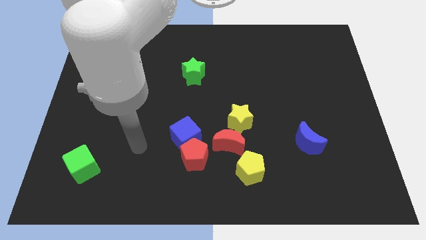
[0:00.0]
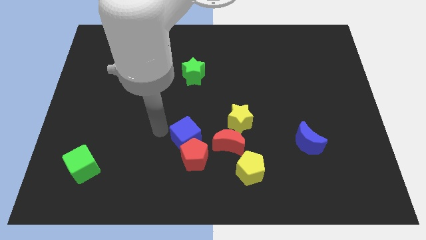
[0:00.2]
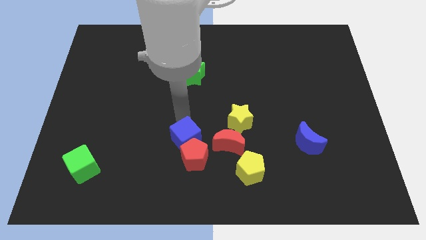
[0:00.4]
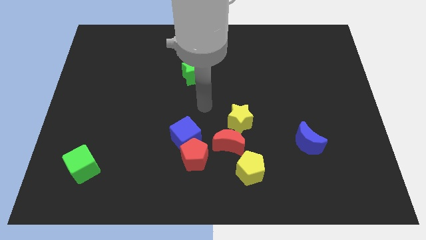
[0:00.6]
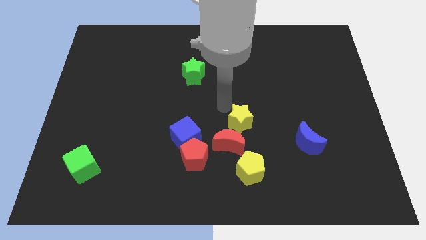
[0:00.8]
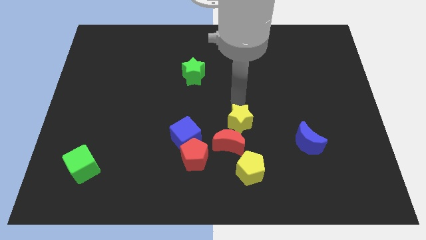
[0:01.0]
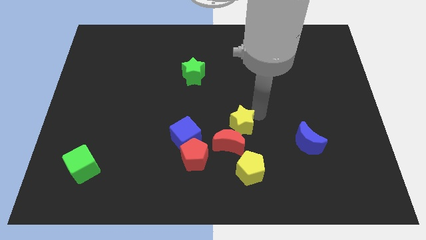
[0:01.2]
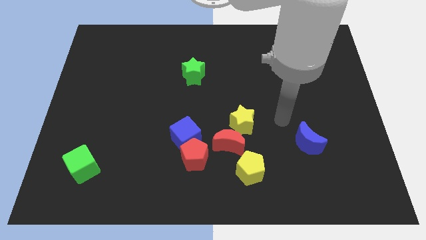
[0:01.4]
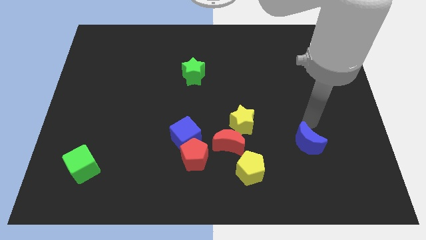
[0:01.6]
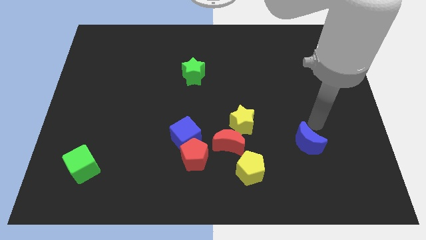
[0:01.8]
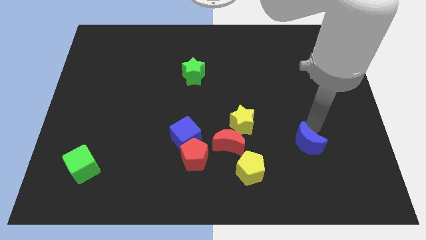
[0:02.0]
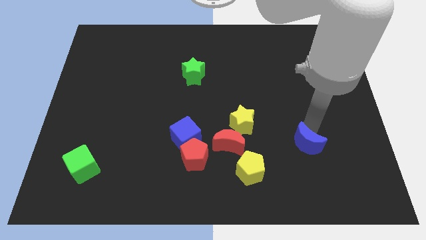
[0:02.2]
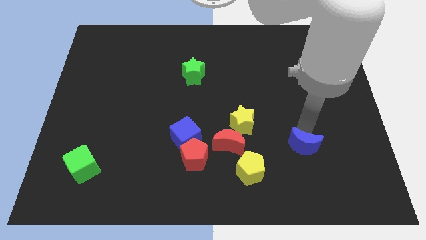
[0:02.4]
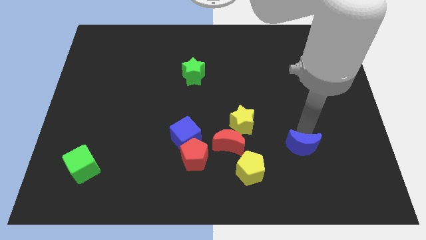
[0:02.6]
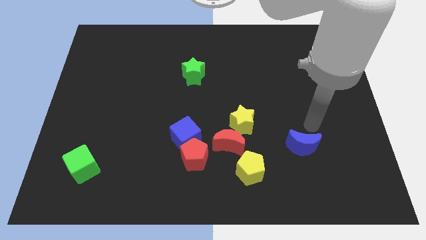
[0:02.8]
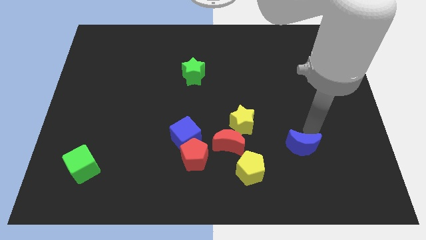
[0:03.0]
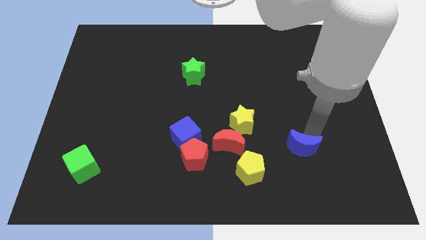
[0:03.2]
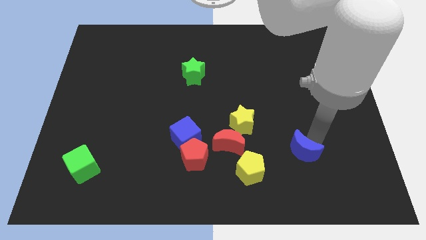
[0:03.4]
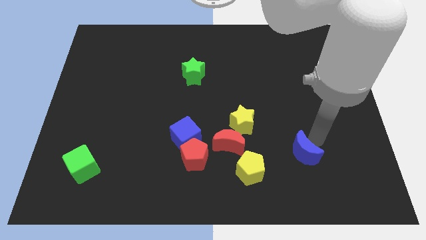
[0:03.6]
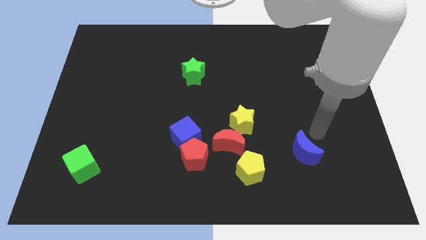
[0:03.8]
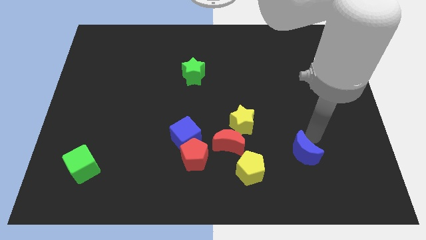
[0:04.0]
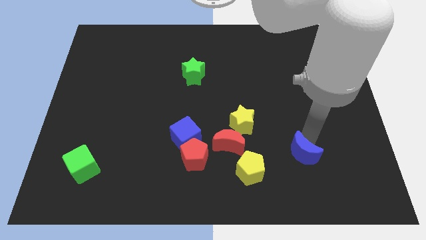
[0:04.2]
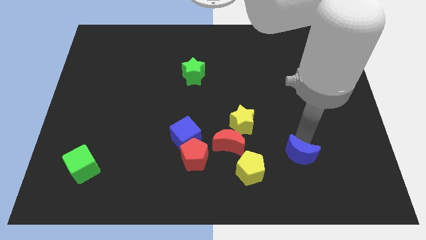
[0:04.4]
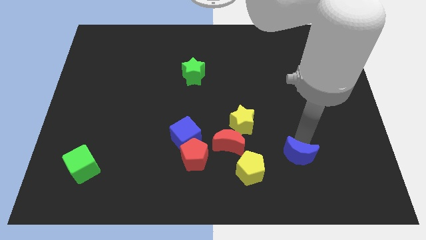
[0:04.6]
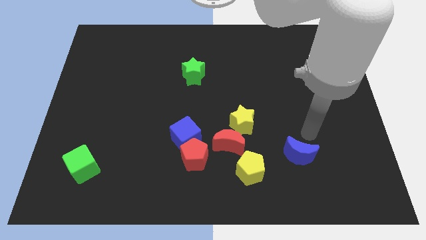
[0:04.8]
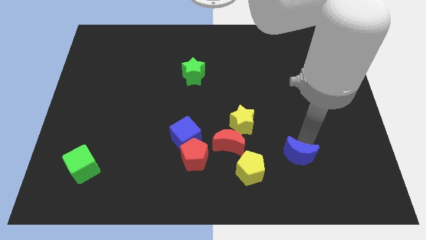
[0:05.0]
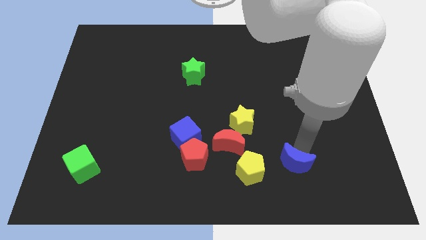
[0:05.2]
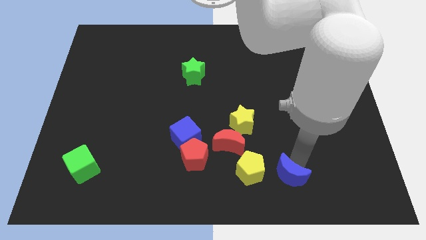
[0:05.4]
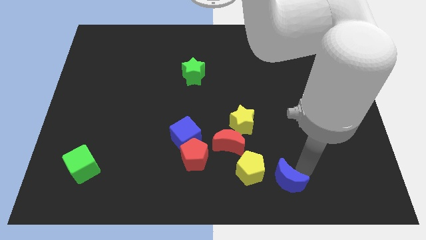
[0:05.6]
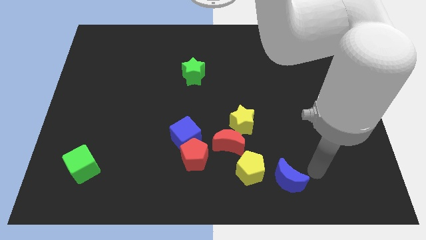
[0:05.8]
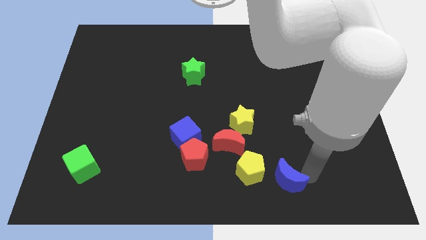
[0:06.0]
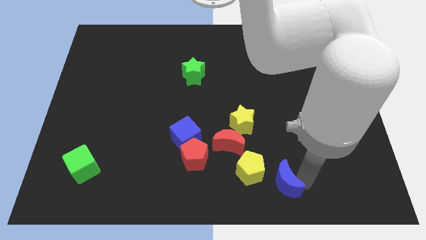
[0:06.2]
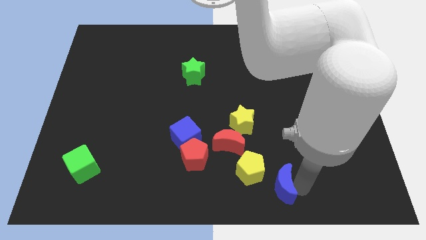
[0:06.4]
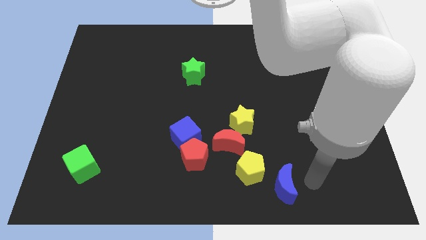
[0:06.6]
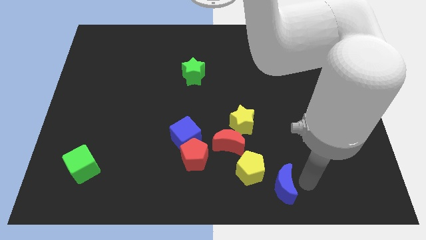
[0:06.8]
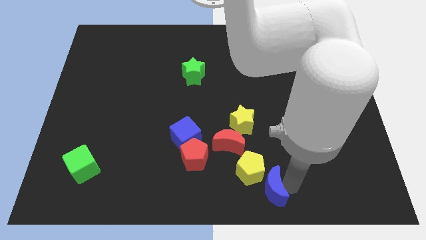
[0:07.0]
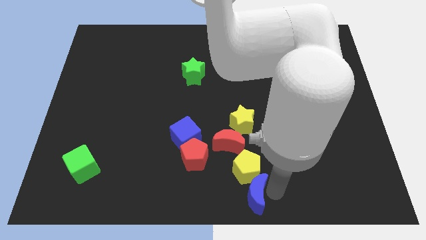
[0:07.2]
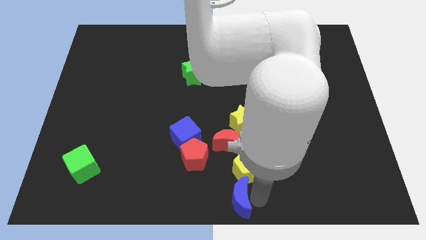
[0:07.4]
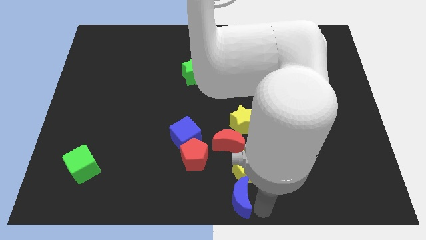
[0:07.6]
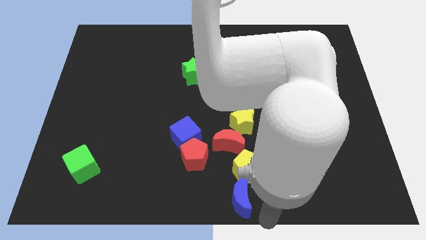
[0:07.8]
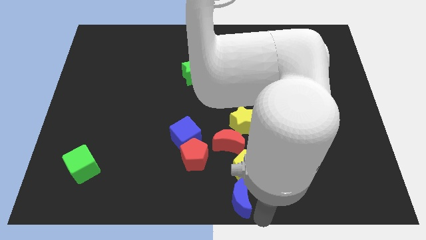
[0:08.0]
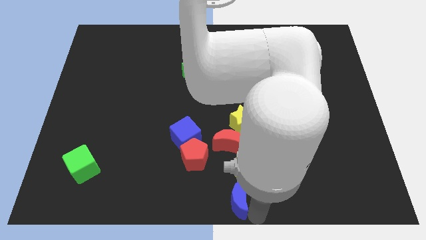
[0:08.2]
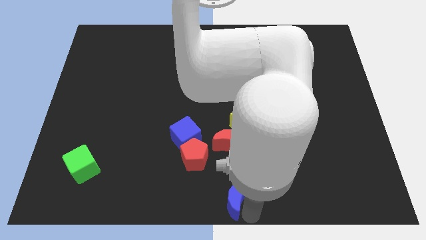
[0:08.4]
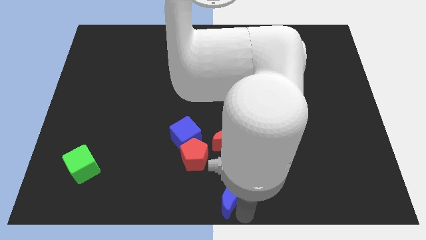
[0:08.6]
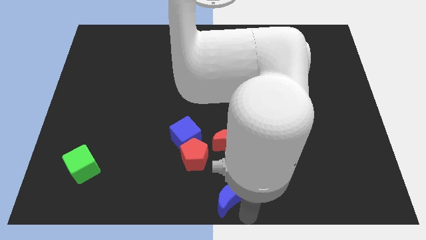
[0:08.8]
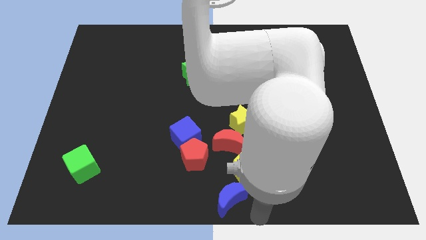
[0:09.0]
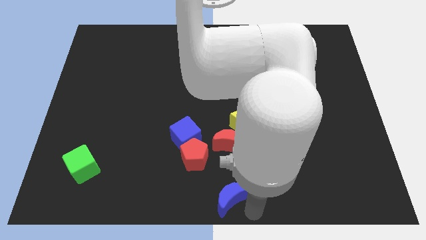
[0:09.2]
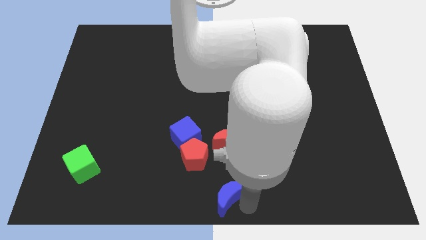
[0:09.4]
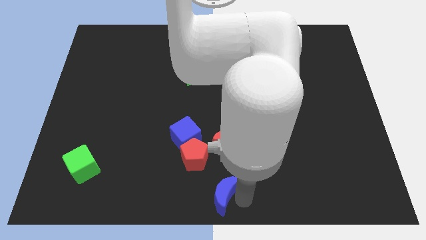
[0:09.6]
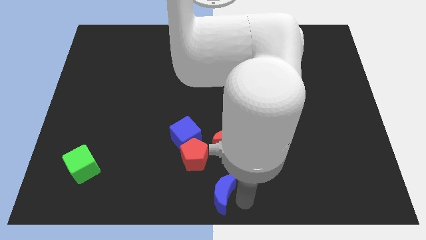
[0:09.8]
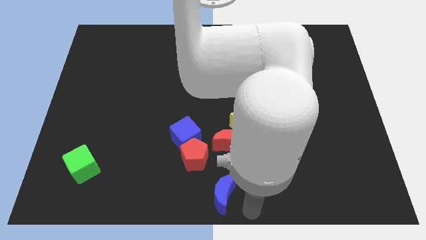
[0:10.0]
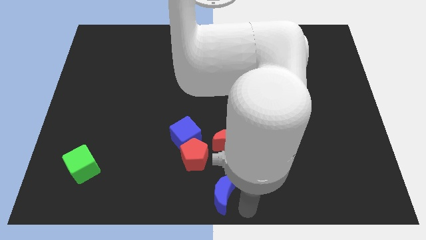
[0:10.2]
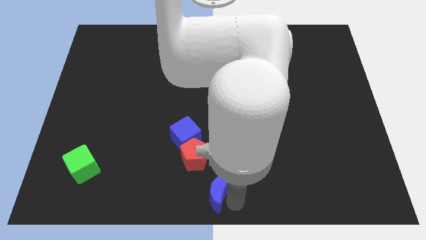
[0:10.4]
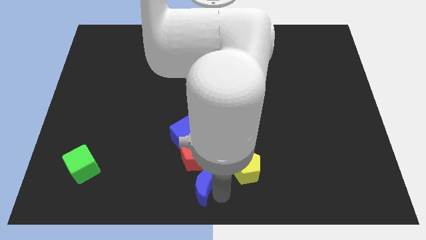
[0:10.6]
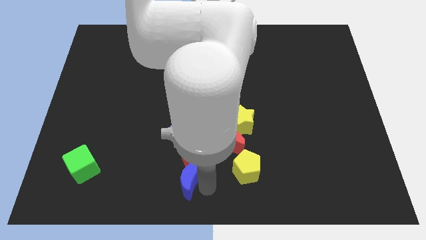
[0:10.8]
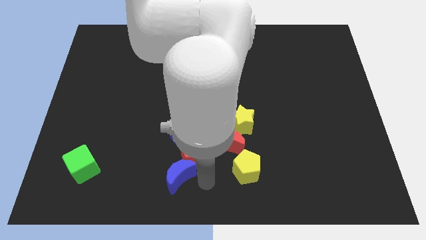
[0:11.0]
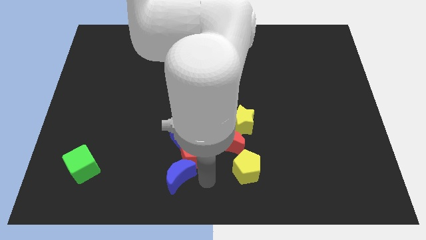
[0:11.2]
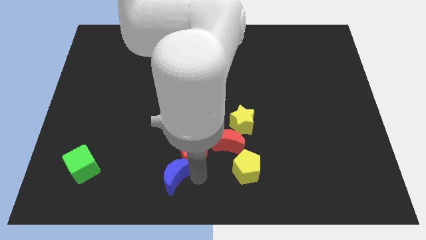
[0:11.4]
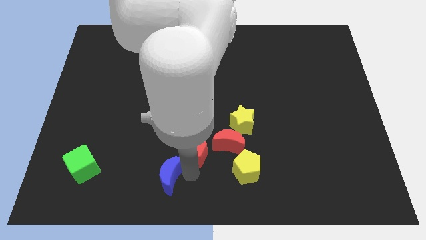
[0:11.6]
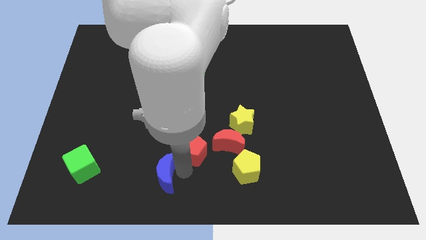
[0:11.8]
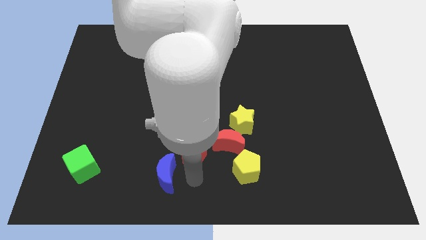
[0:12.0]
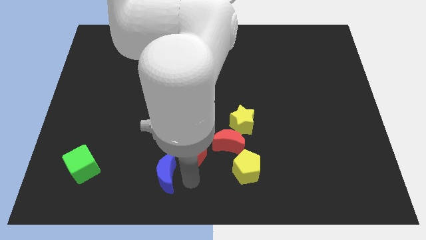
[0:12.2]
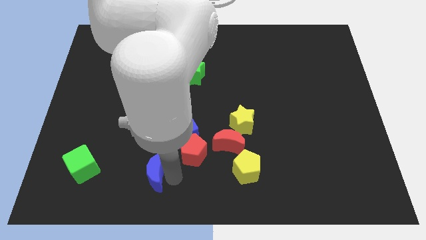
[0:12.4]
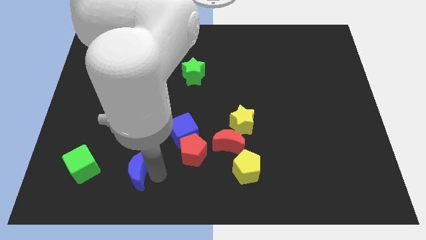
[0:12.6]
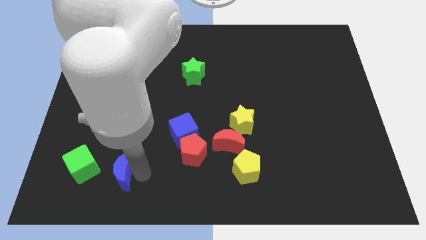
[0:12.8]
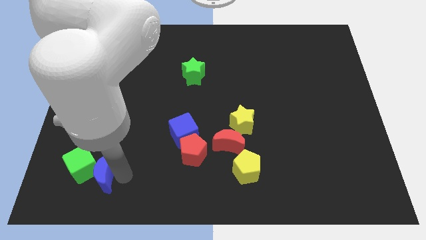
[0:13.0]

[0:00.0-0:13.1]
move the blue moon towards the green cube
